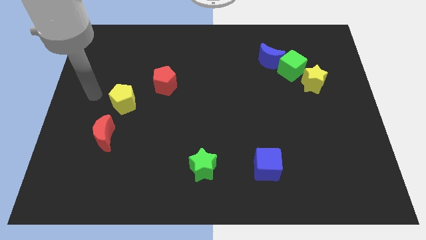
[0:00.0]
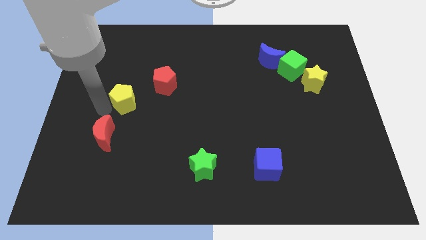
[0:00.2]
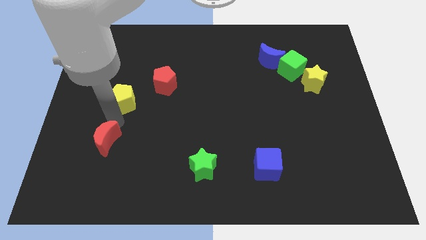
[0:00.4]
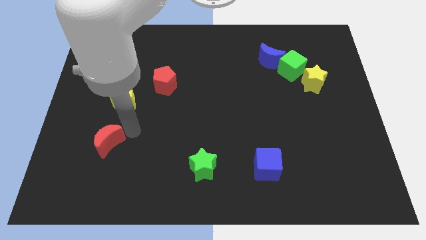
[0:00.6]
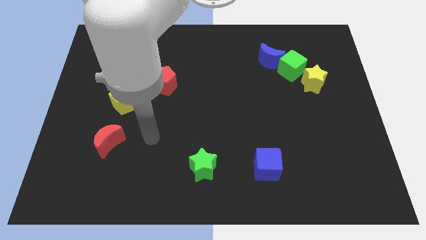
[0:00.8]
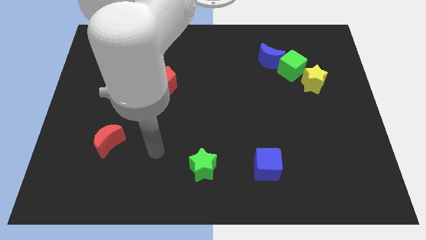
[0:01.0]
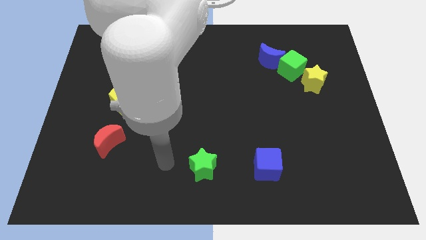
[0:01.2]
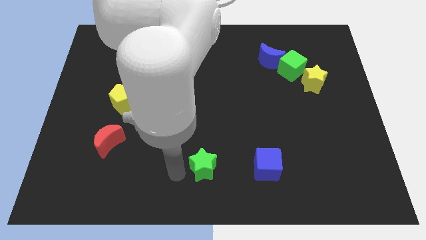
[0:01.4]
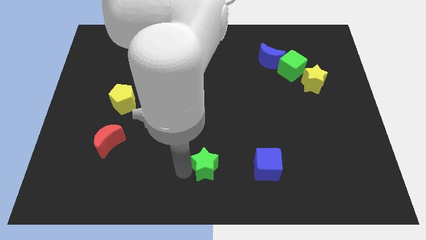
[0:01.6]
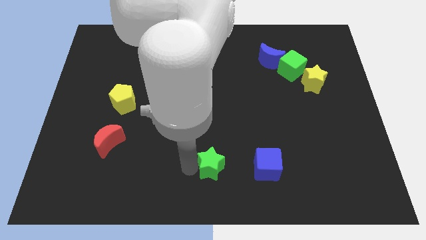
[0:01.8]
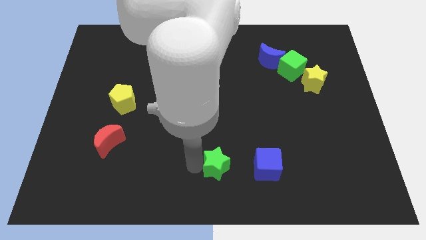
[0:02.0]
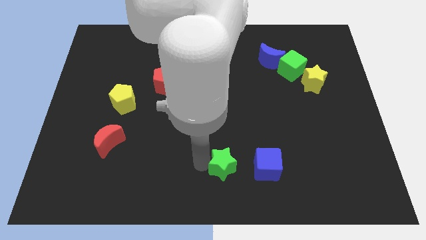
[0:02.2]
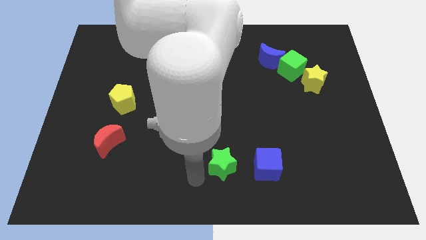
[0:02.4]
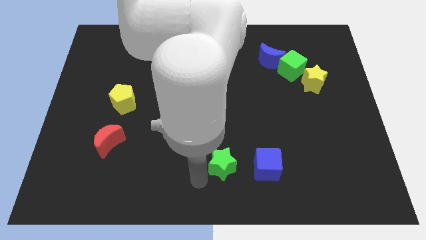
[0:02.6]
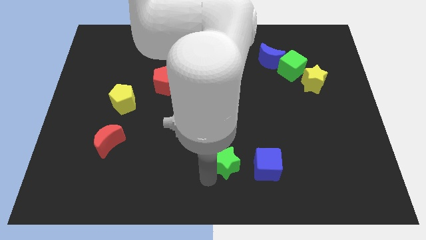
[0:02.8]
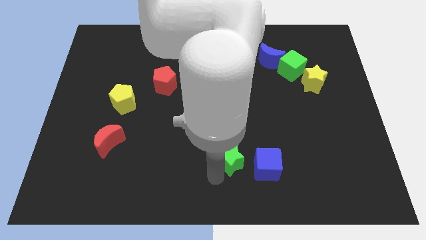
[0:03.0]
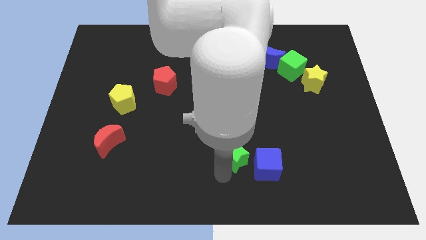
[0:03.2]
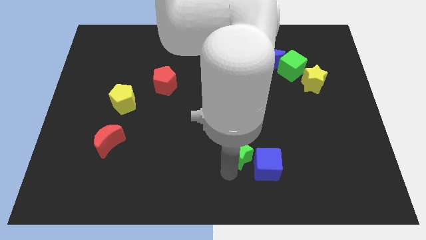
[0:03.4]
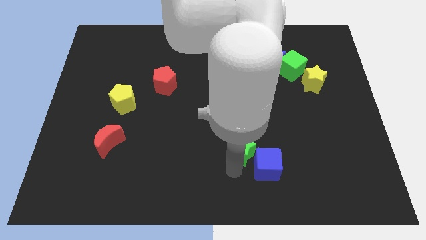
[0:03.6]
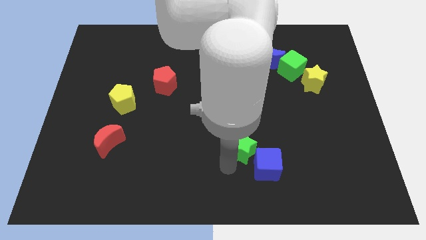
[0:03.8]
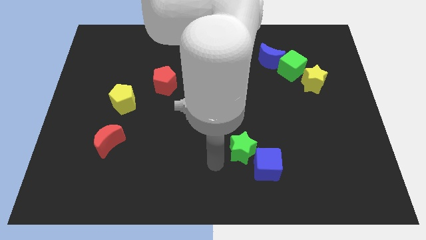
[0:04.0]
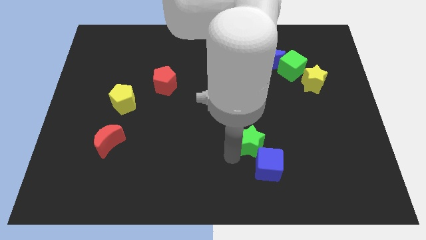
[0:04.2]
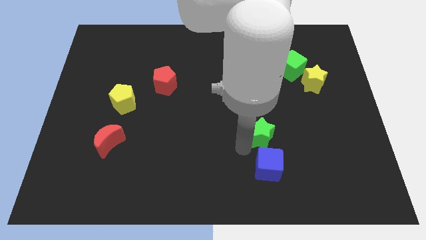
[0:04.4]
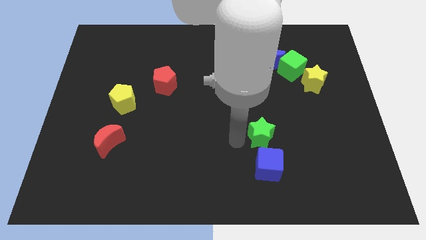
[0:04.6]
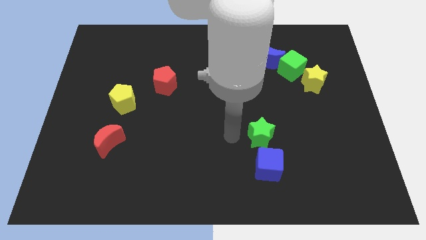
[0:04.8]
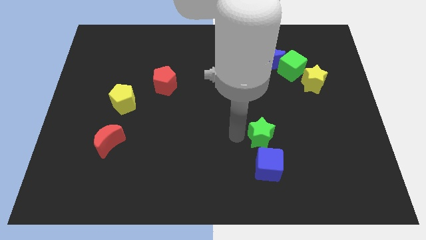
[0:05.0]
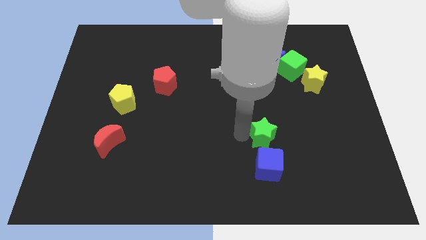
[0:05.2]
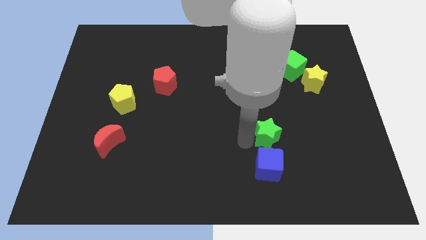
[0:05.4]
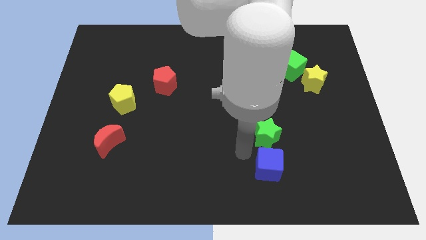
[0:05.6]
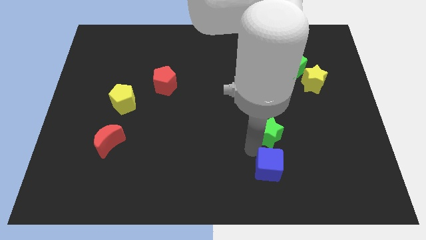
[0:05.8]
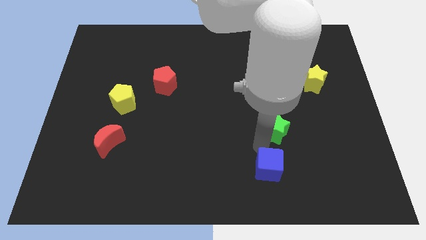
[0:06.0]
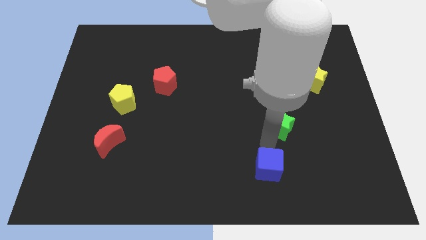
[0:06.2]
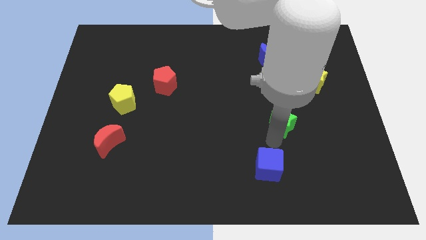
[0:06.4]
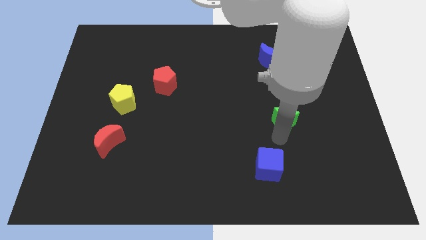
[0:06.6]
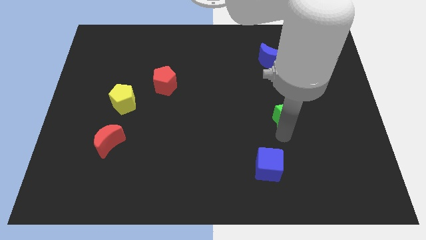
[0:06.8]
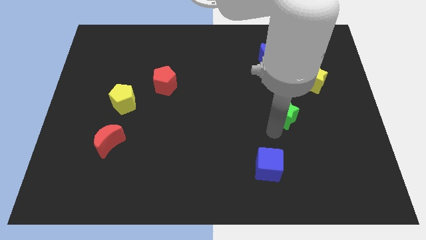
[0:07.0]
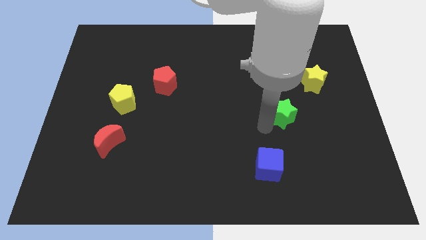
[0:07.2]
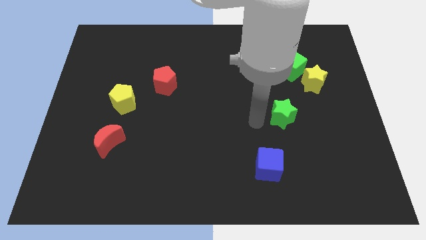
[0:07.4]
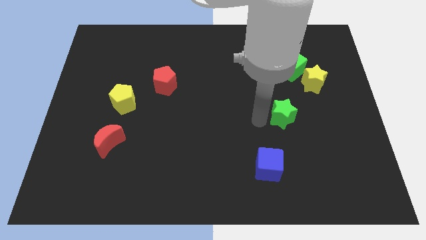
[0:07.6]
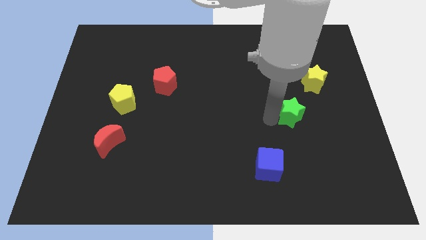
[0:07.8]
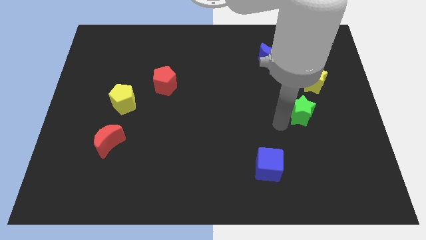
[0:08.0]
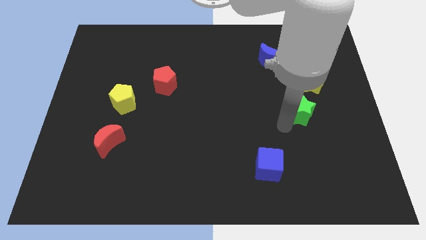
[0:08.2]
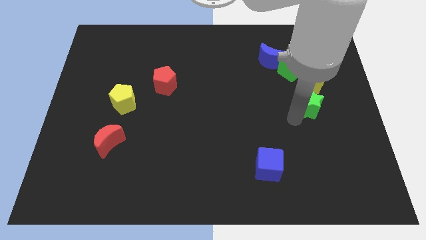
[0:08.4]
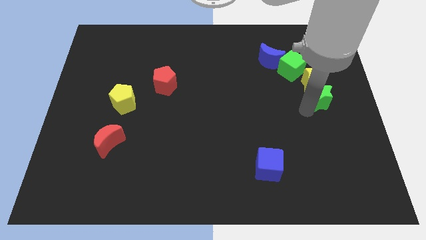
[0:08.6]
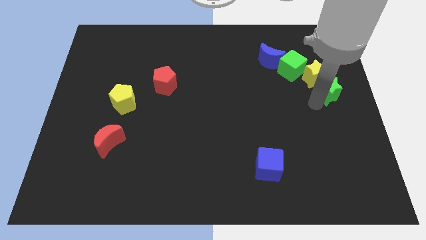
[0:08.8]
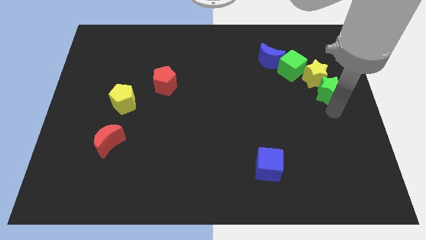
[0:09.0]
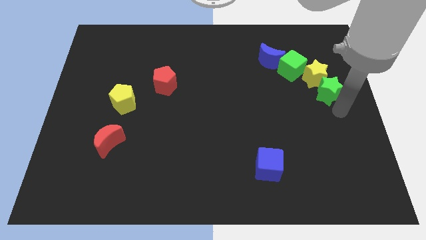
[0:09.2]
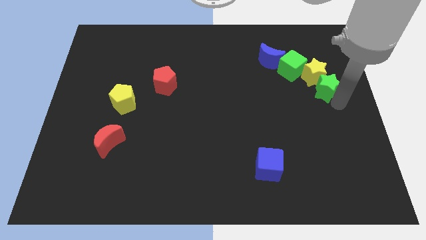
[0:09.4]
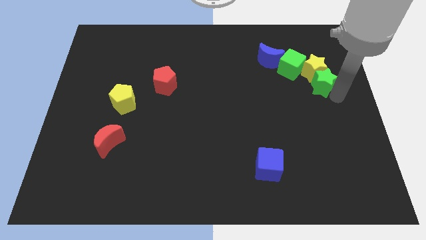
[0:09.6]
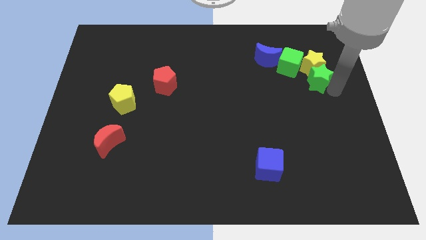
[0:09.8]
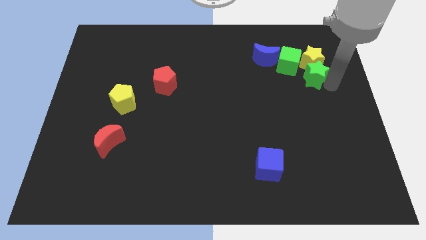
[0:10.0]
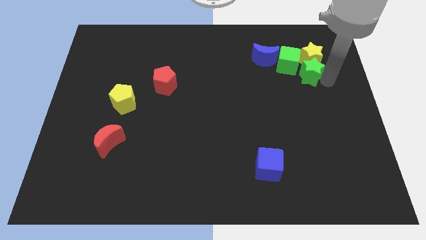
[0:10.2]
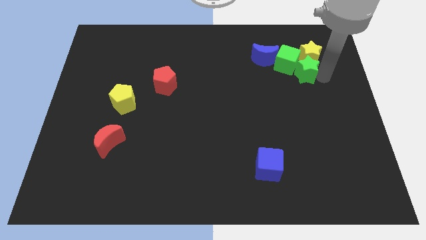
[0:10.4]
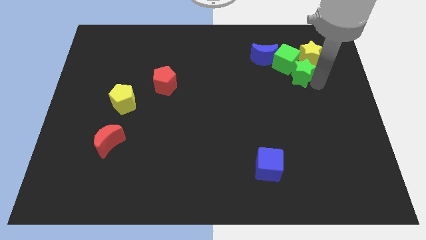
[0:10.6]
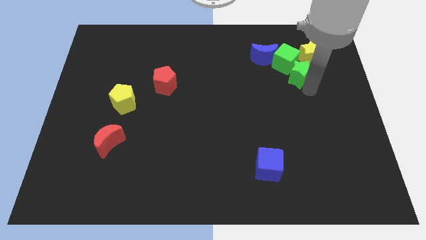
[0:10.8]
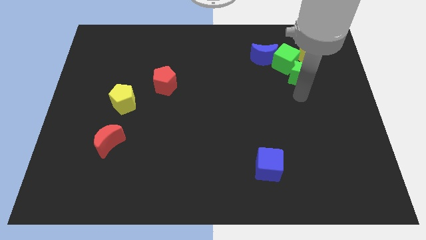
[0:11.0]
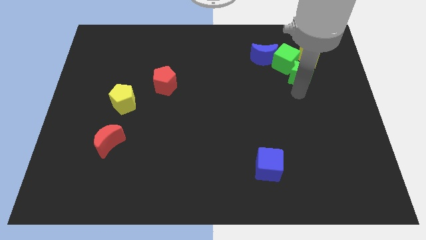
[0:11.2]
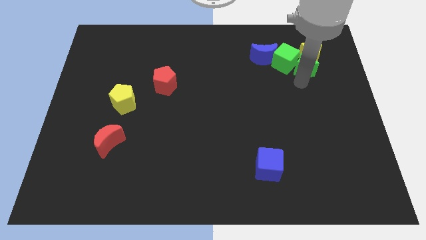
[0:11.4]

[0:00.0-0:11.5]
push the green star to the right of the blue moon

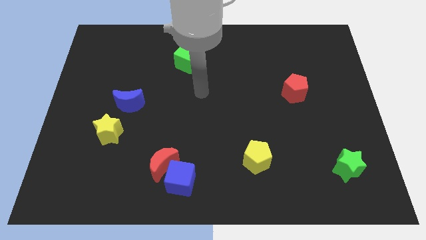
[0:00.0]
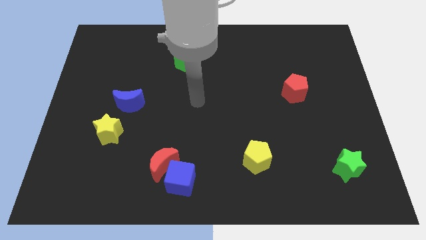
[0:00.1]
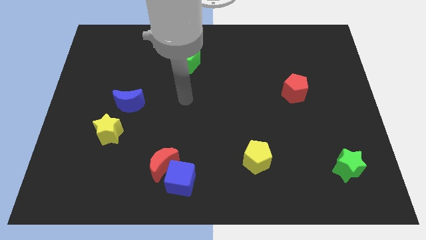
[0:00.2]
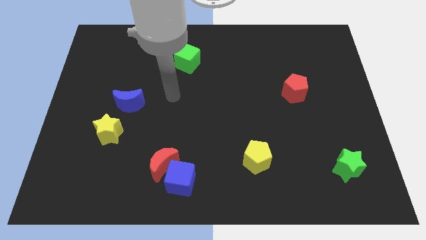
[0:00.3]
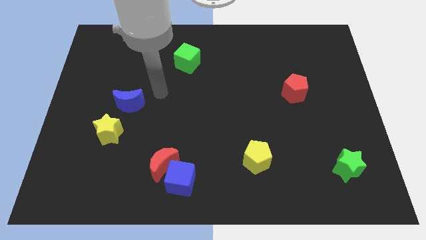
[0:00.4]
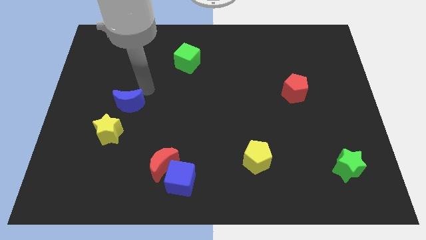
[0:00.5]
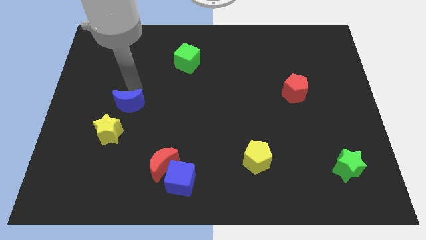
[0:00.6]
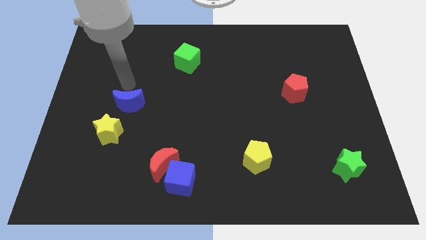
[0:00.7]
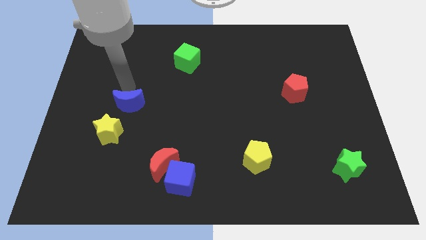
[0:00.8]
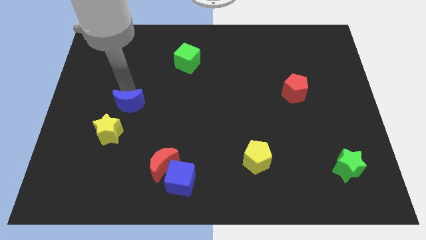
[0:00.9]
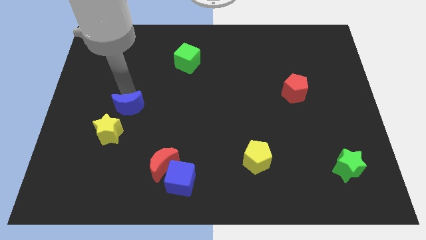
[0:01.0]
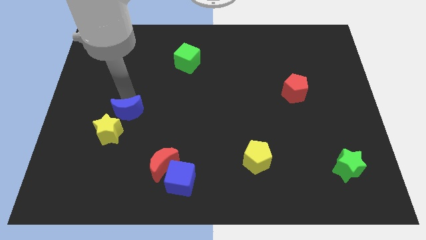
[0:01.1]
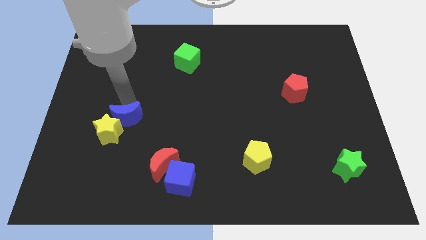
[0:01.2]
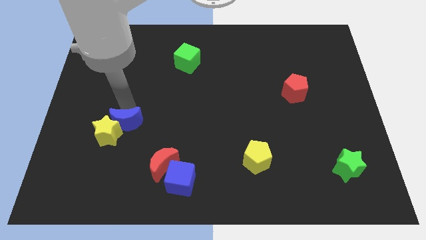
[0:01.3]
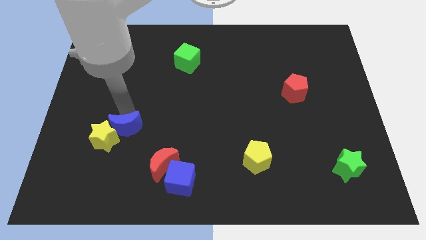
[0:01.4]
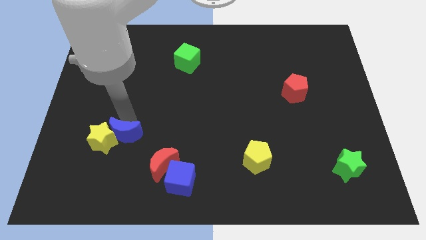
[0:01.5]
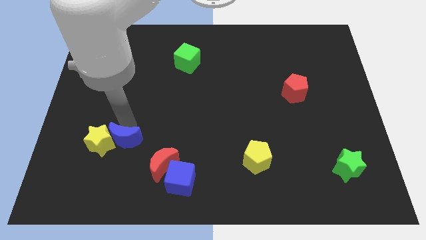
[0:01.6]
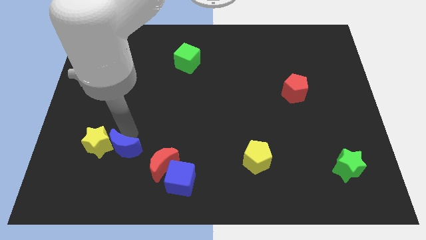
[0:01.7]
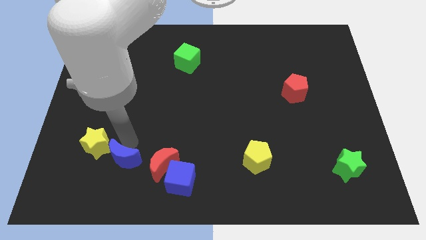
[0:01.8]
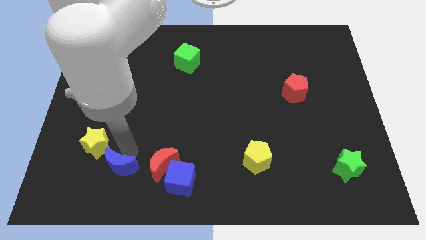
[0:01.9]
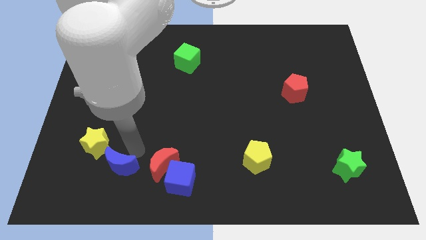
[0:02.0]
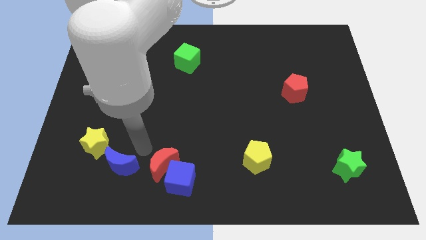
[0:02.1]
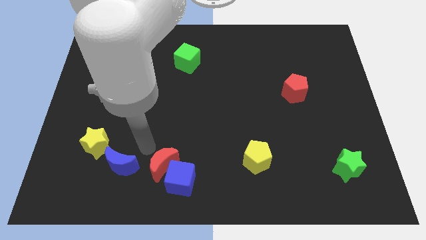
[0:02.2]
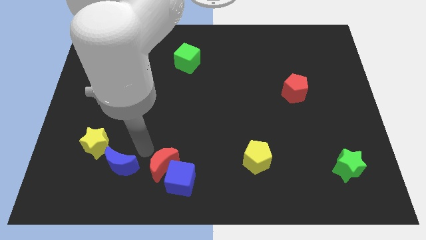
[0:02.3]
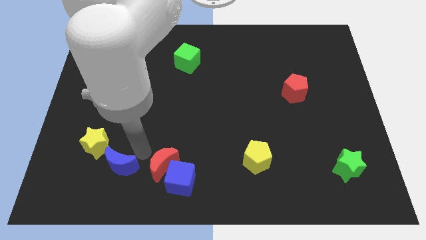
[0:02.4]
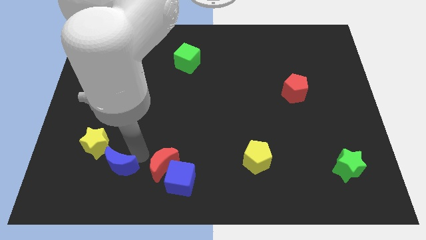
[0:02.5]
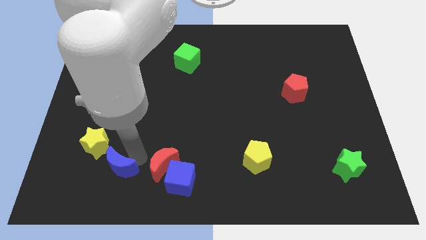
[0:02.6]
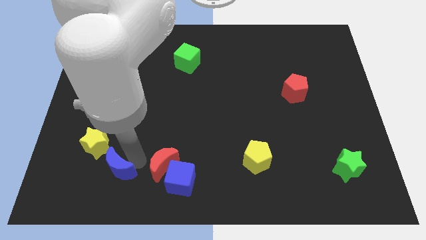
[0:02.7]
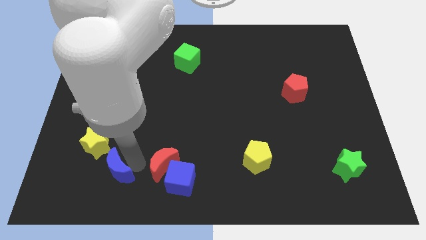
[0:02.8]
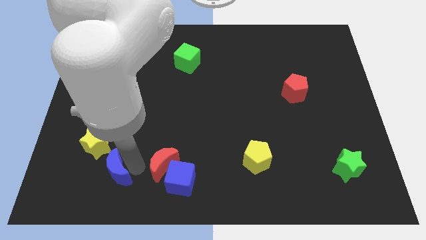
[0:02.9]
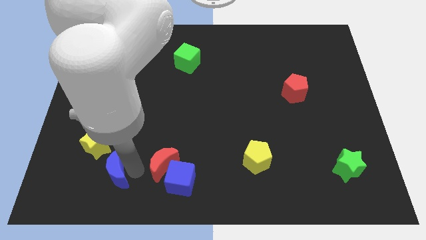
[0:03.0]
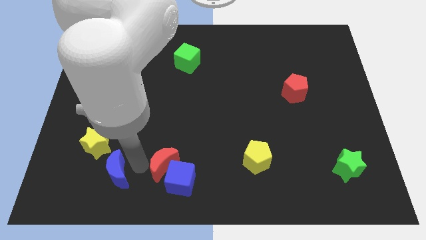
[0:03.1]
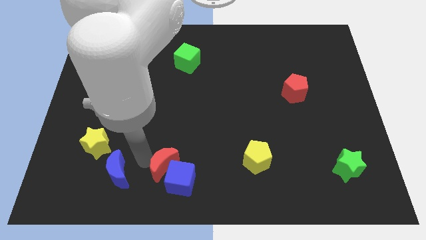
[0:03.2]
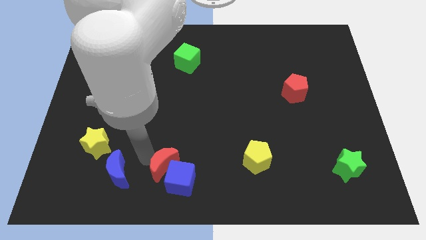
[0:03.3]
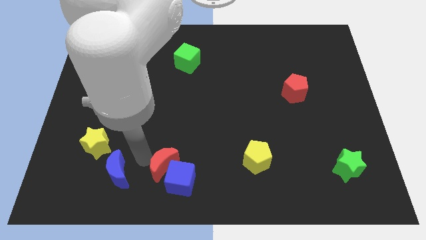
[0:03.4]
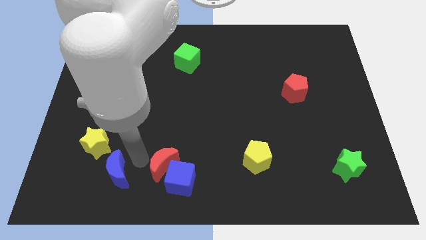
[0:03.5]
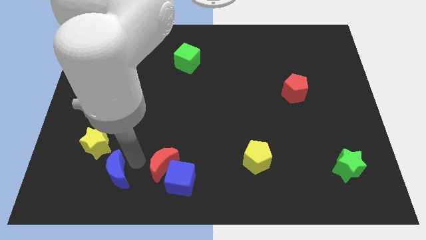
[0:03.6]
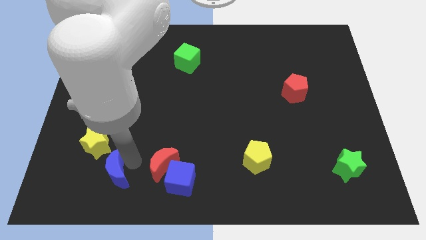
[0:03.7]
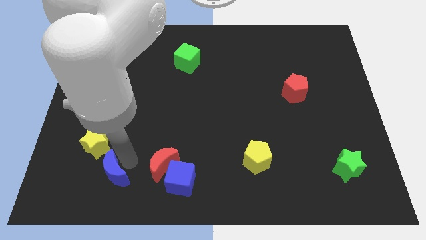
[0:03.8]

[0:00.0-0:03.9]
move the blue moon to the bottom of the yellow star
